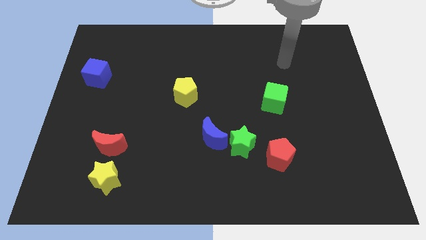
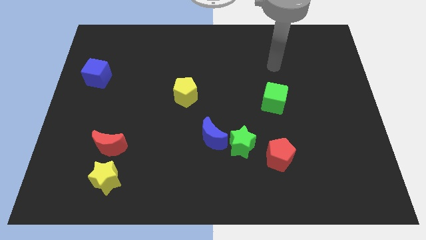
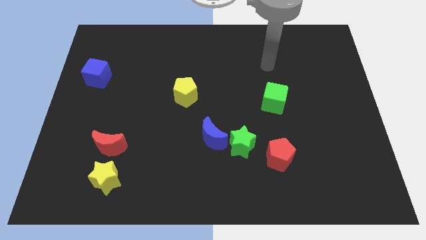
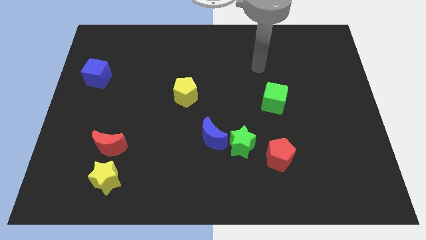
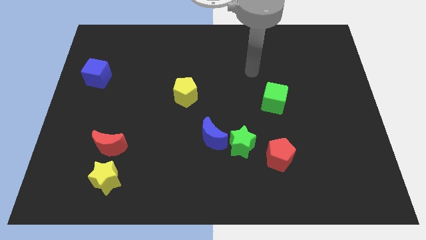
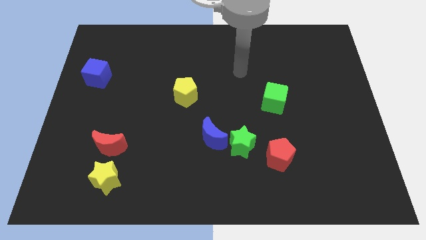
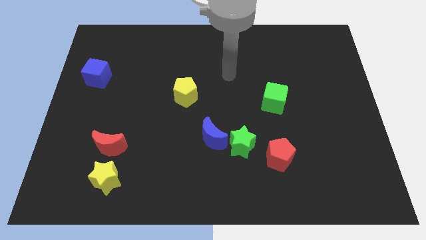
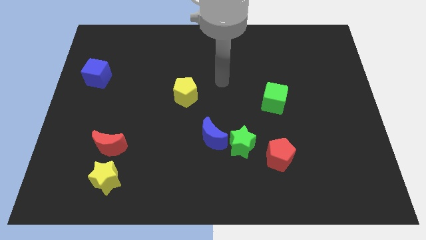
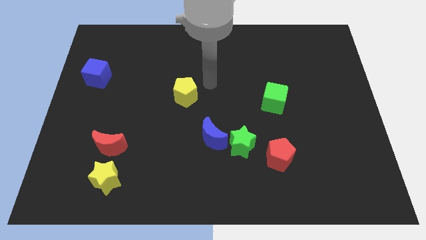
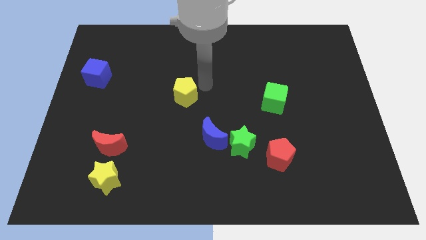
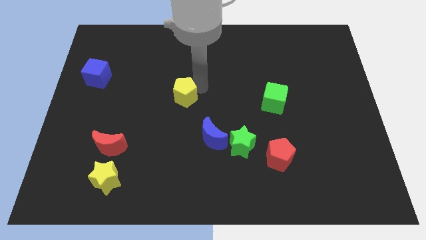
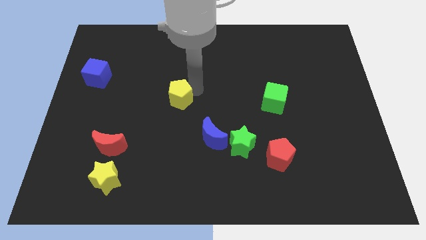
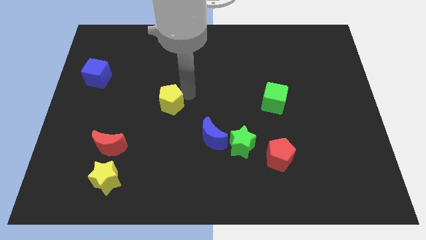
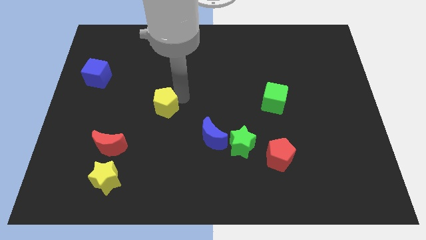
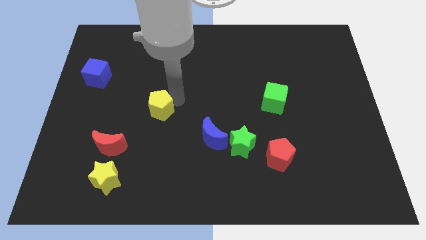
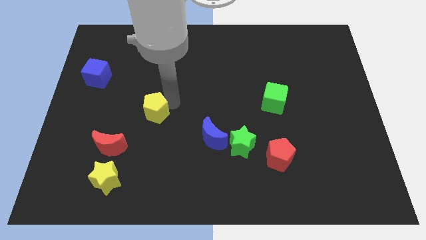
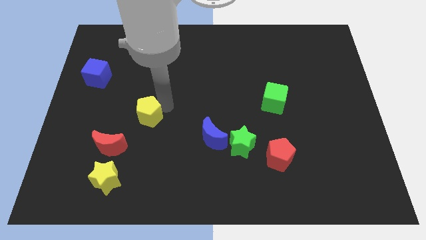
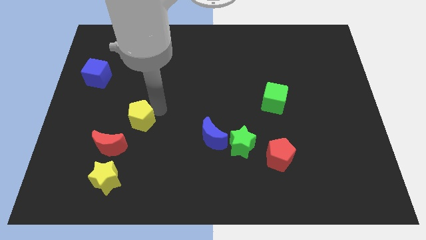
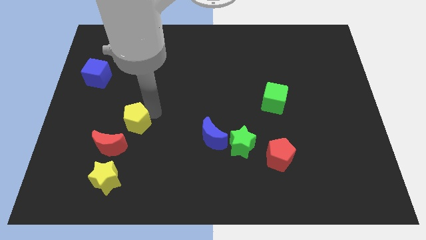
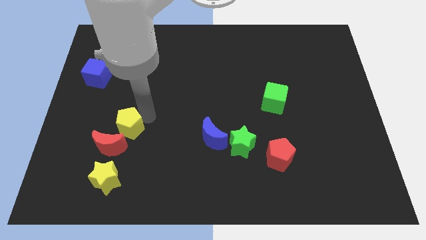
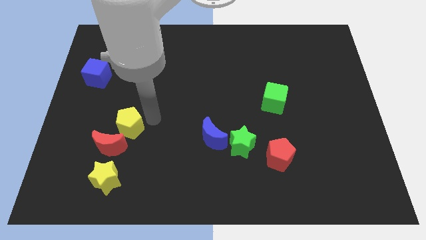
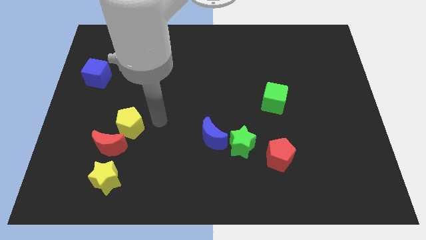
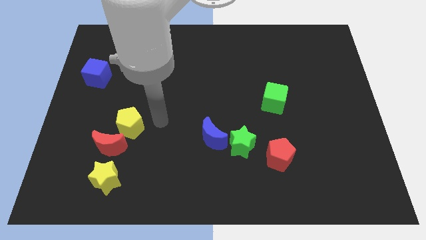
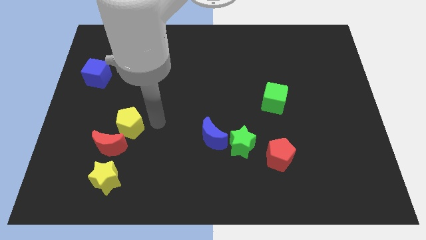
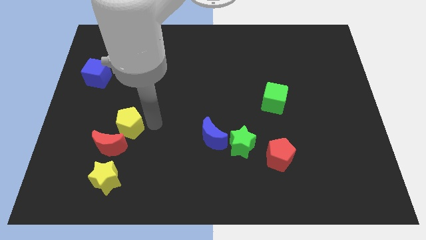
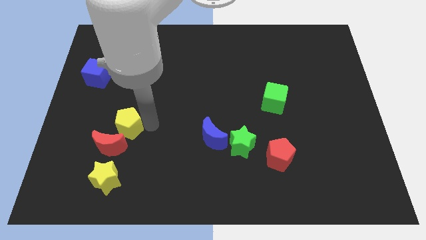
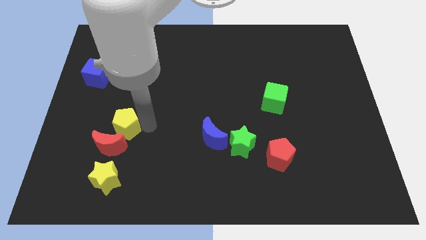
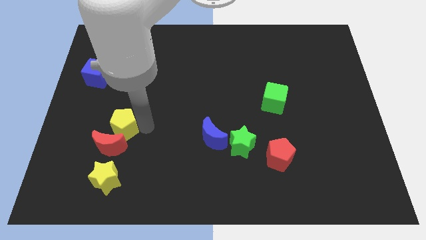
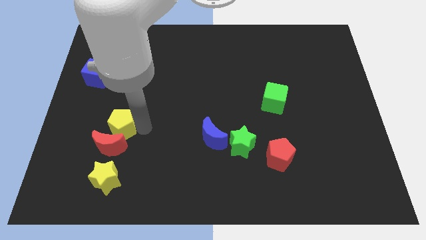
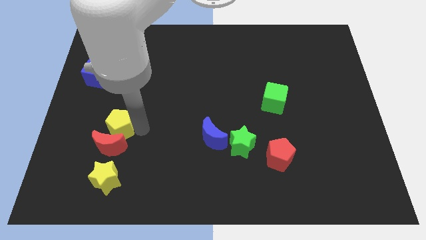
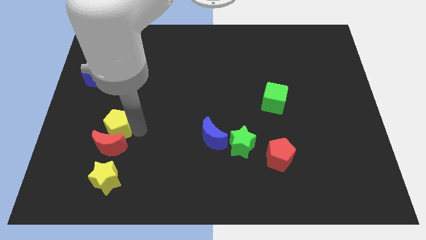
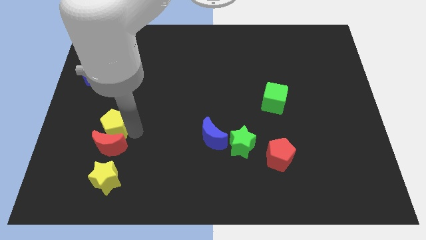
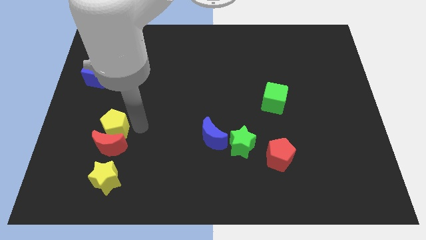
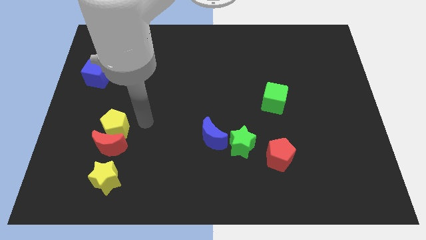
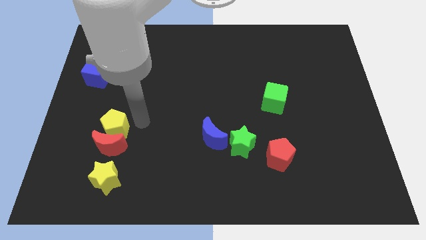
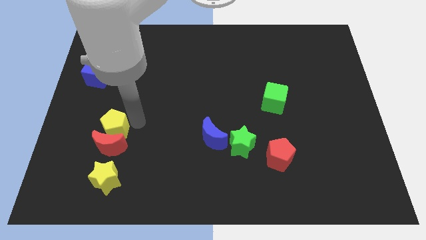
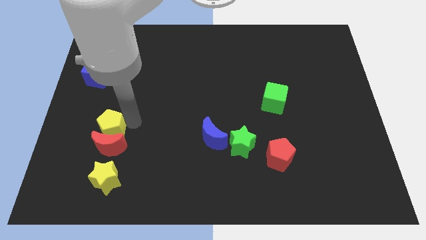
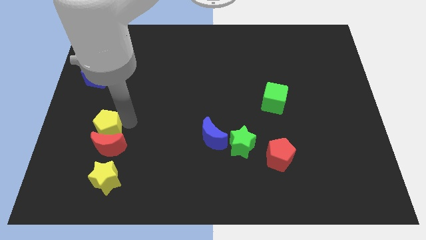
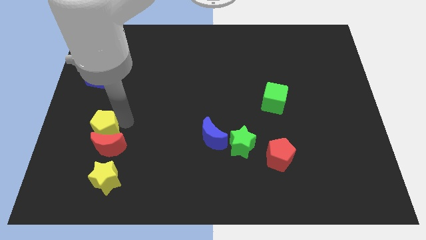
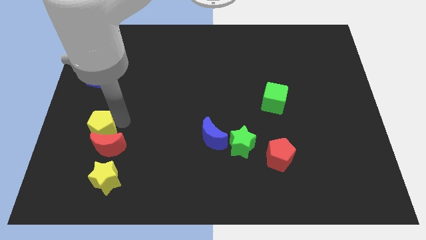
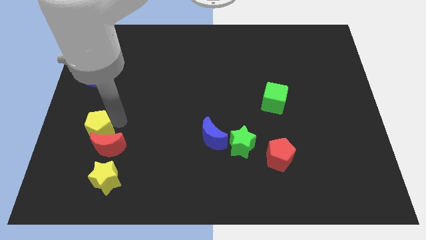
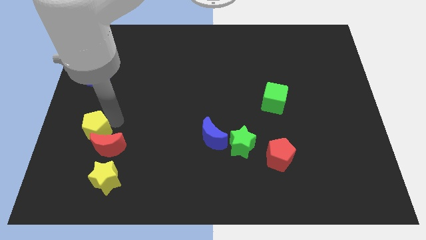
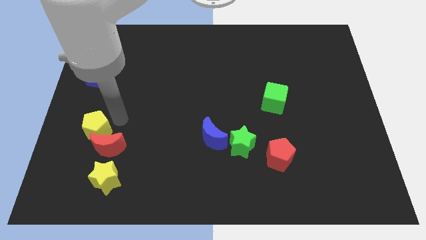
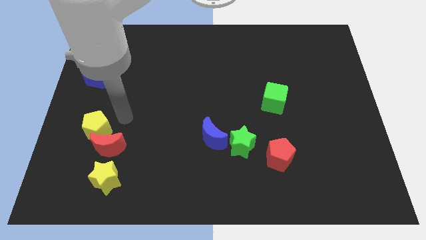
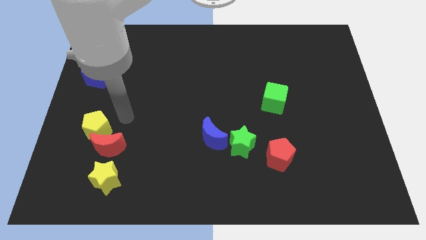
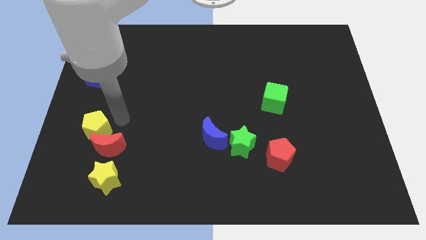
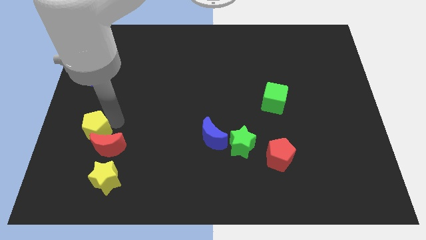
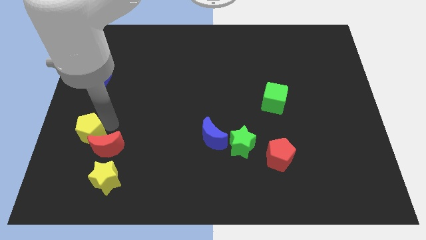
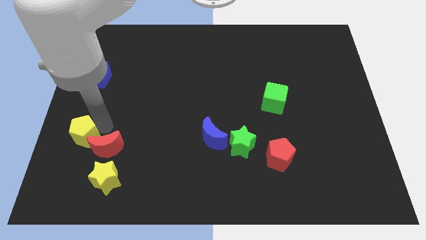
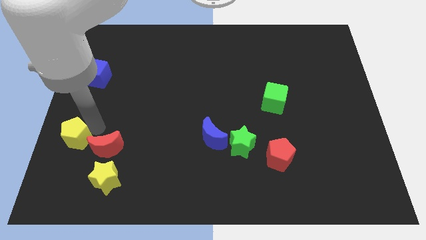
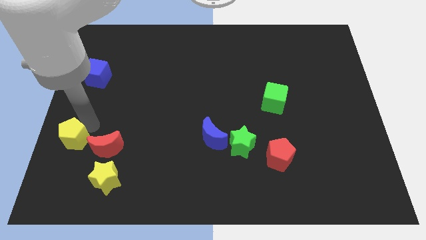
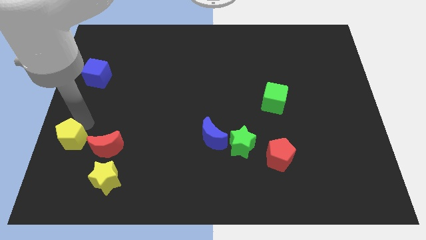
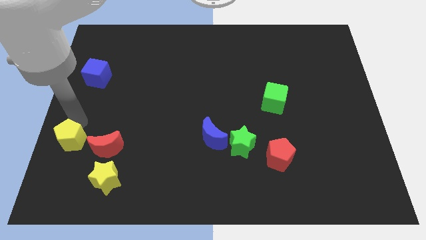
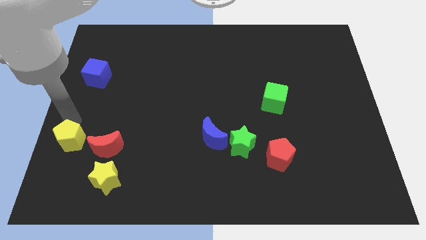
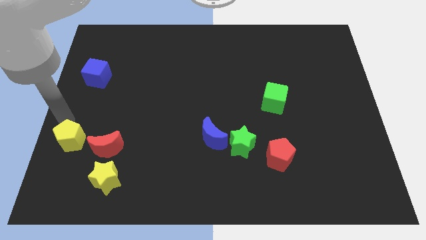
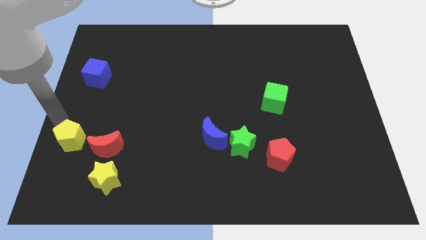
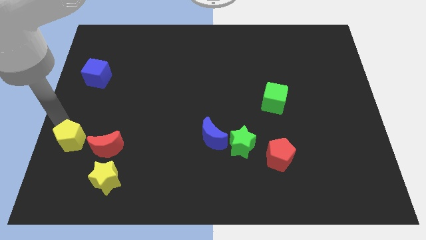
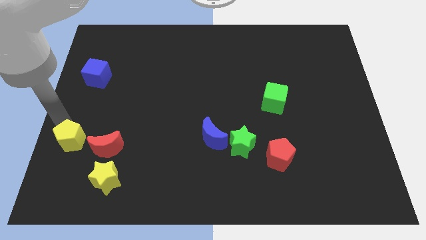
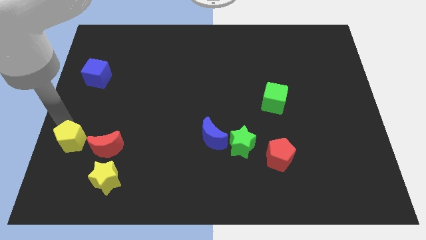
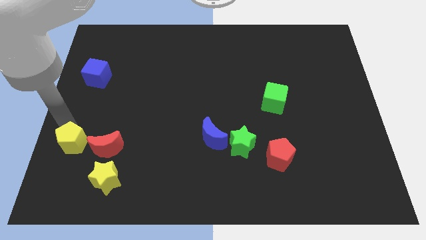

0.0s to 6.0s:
move the yellow pentagon to the top left of the yellow star

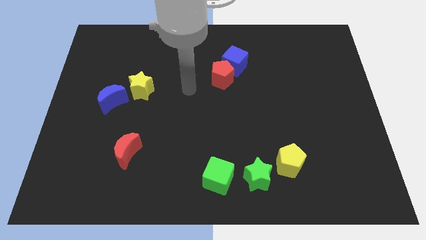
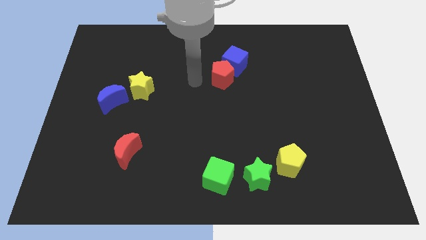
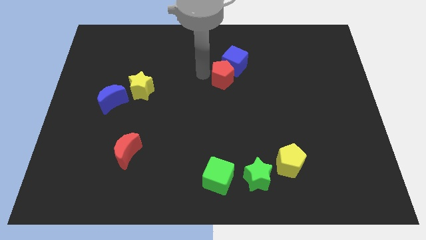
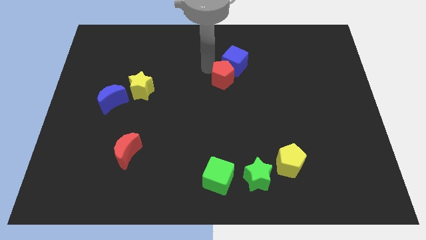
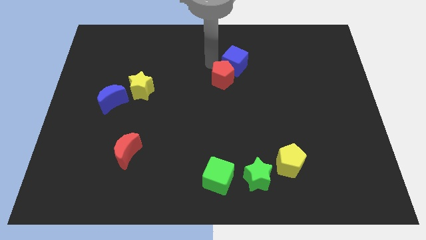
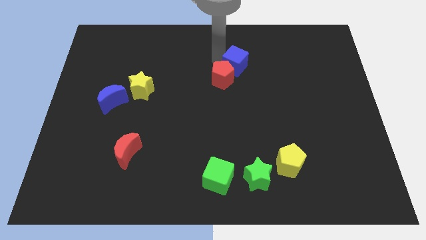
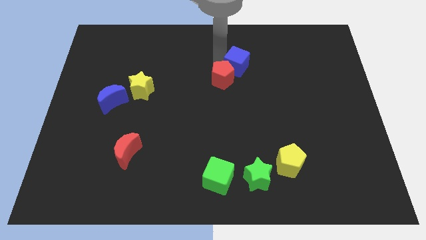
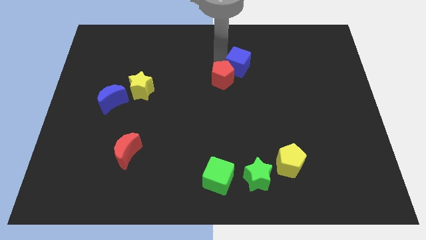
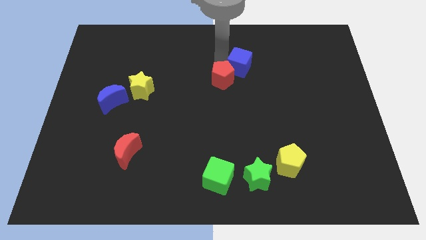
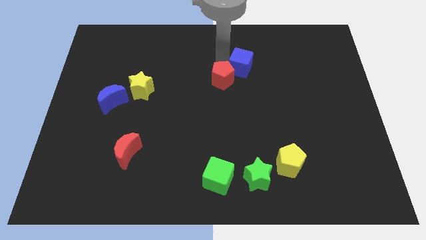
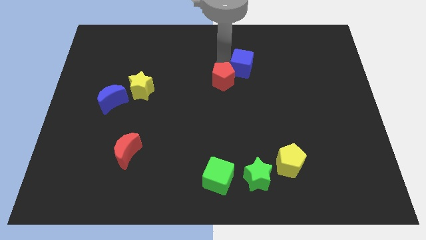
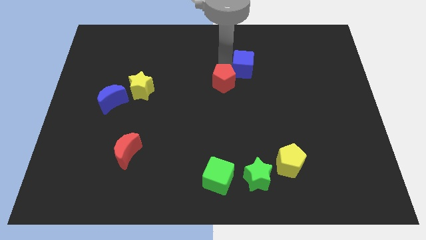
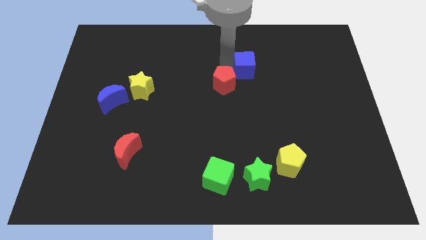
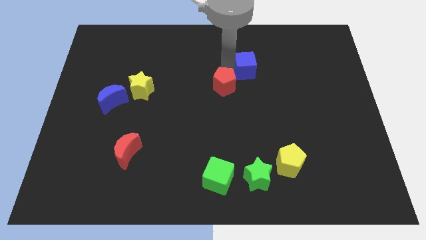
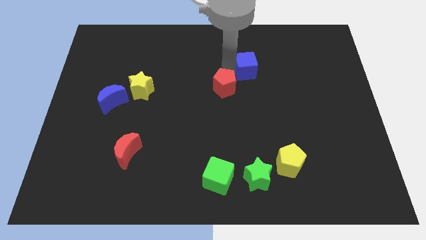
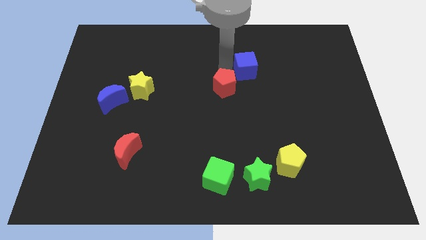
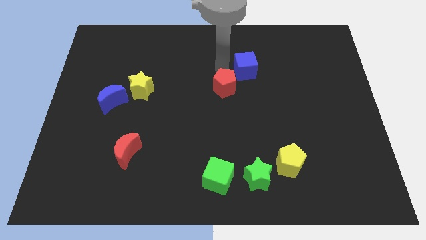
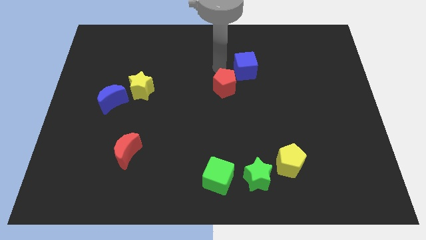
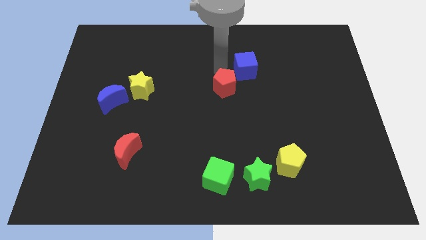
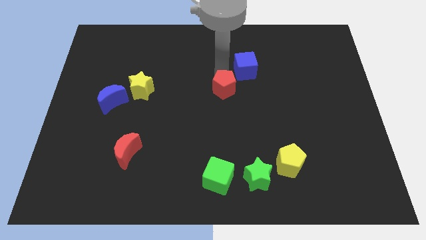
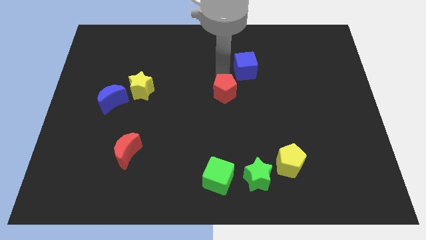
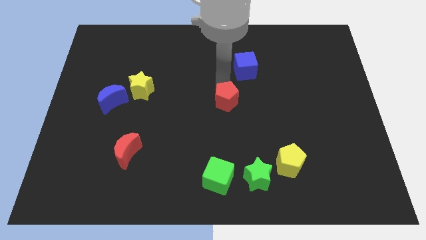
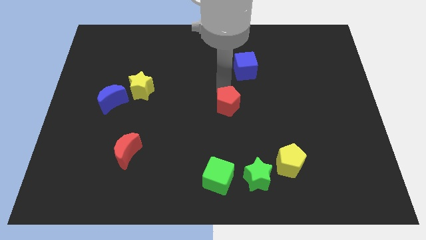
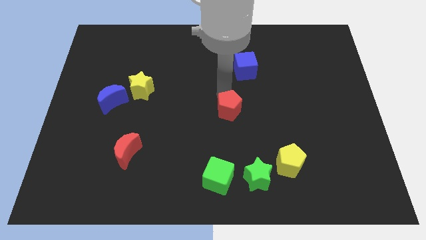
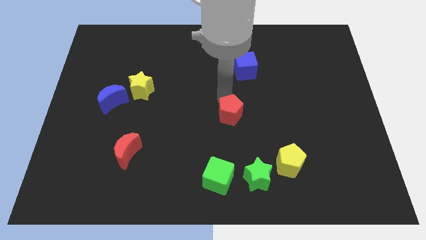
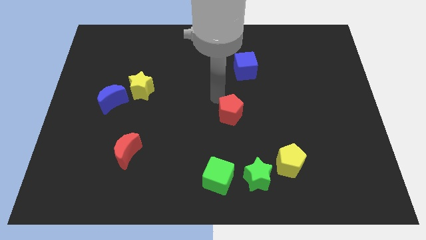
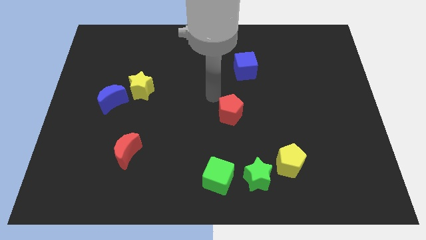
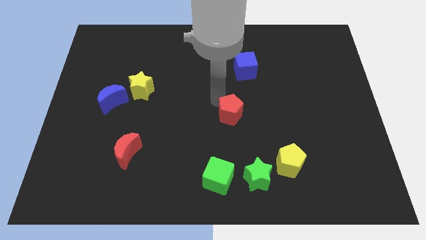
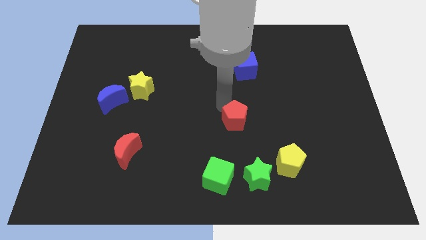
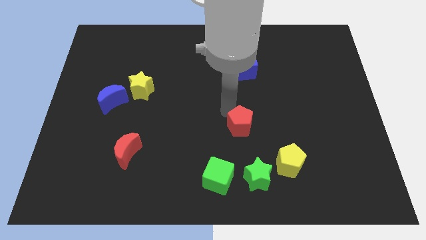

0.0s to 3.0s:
put the red pentagon above the green star
